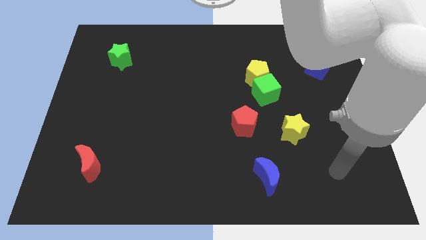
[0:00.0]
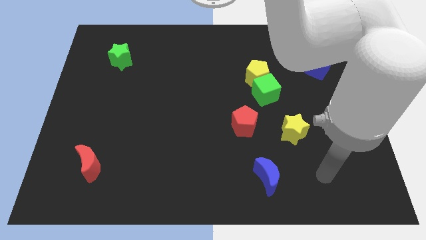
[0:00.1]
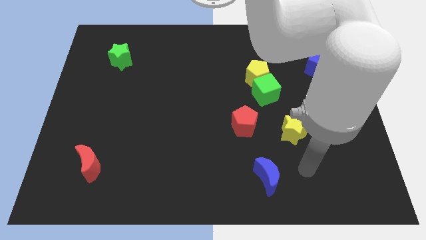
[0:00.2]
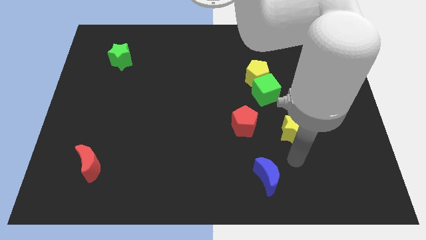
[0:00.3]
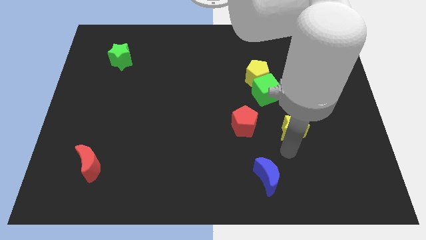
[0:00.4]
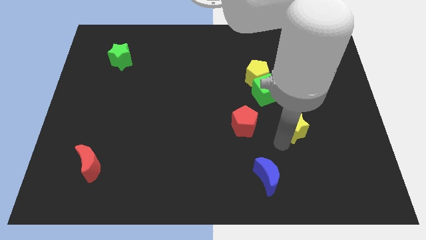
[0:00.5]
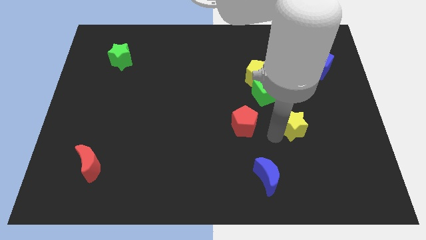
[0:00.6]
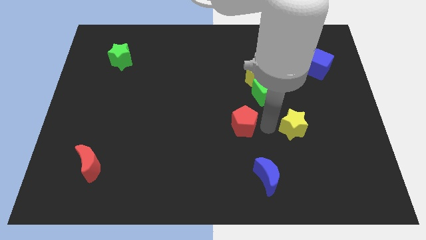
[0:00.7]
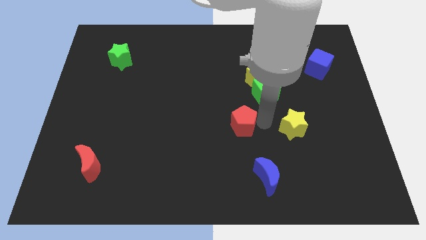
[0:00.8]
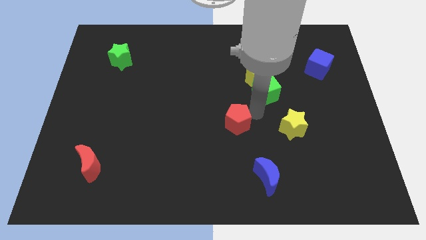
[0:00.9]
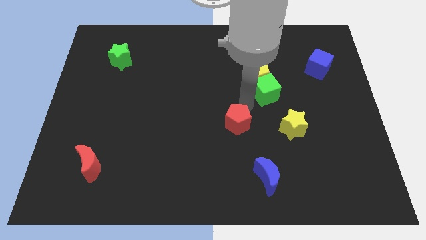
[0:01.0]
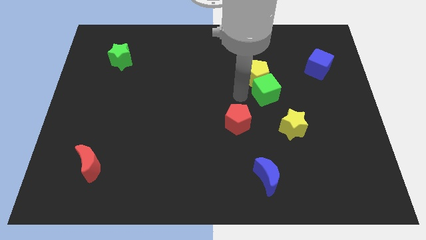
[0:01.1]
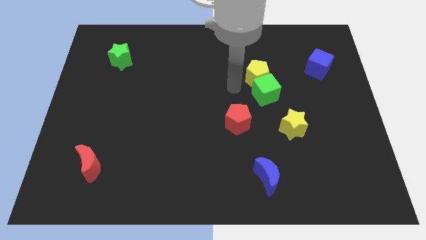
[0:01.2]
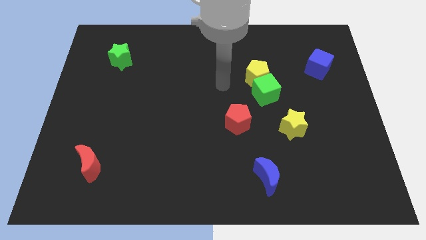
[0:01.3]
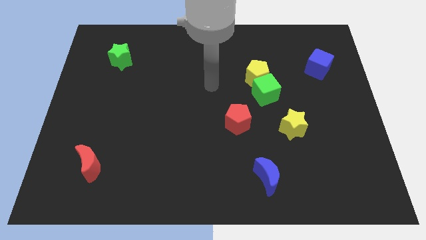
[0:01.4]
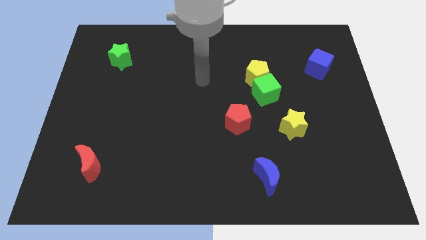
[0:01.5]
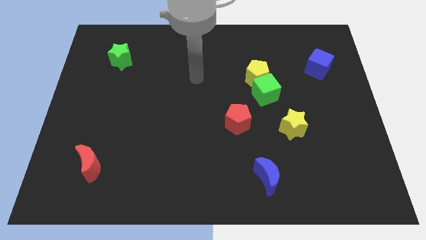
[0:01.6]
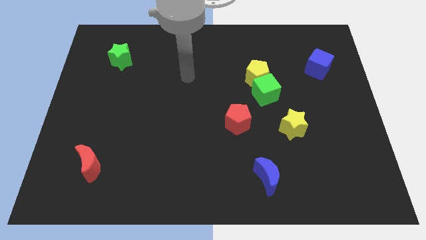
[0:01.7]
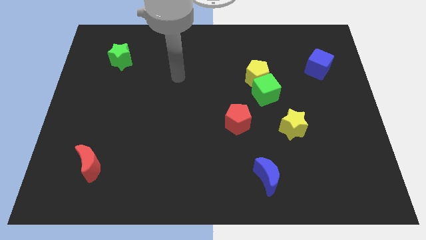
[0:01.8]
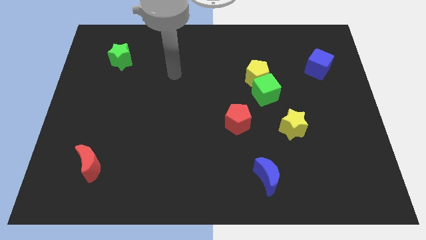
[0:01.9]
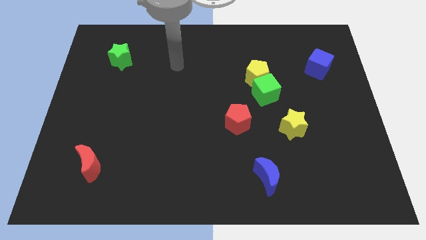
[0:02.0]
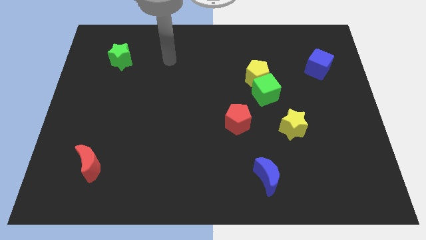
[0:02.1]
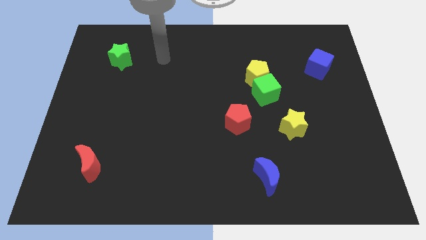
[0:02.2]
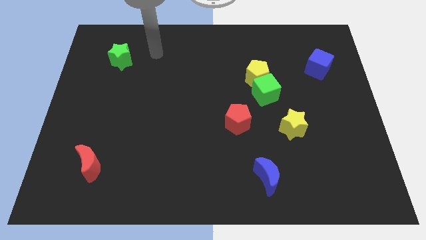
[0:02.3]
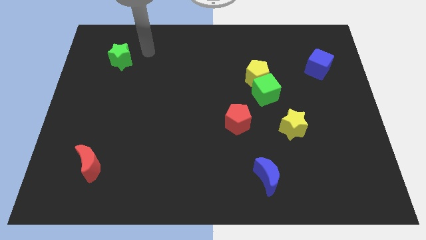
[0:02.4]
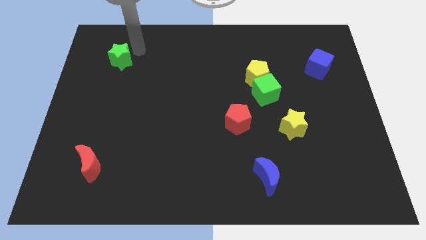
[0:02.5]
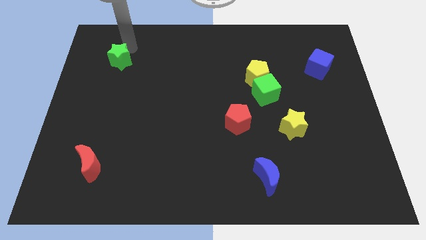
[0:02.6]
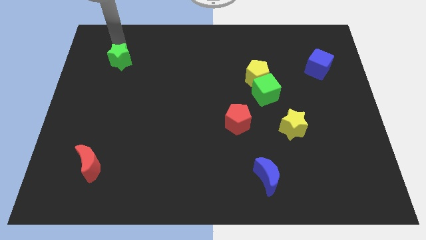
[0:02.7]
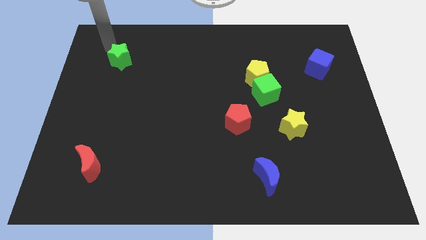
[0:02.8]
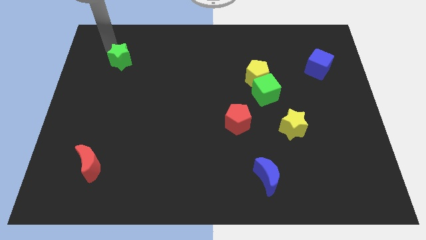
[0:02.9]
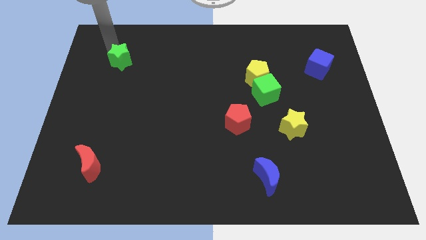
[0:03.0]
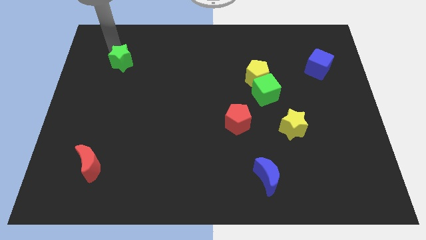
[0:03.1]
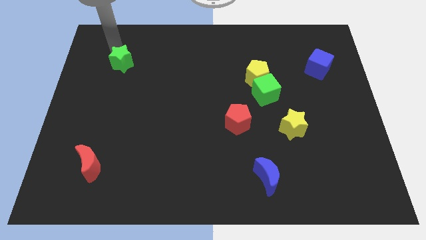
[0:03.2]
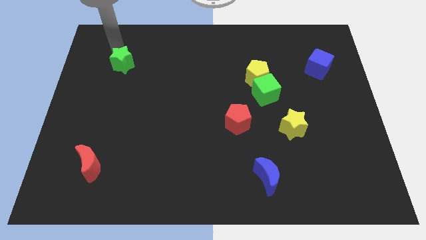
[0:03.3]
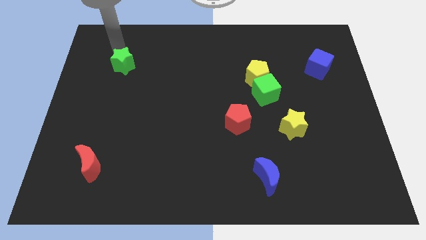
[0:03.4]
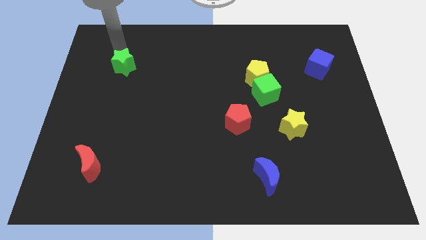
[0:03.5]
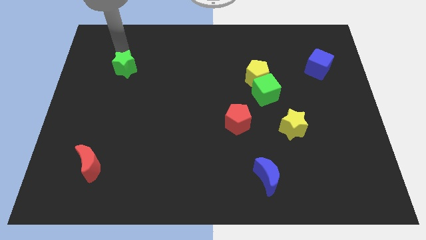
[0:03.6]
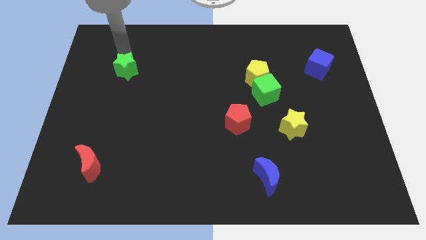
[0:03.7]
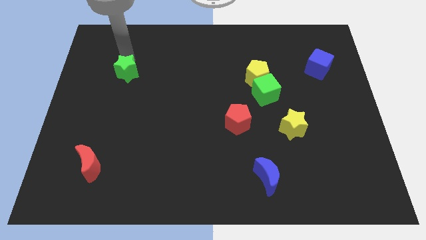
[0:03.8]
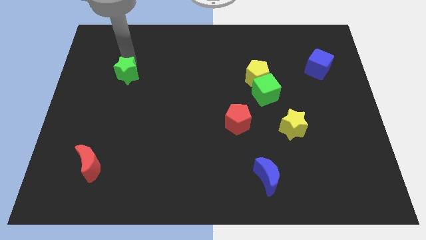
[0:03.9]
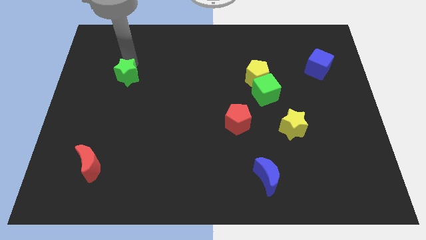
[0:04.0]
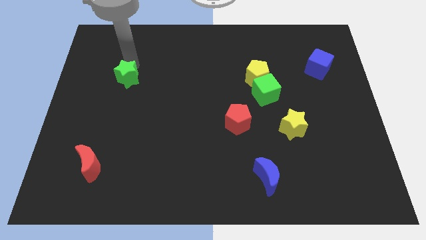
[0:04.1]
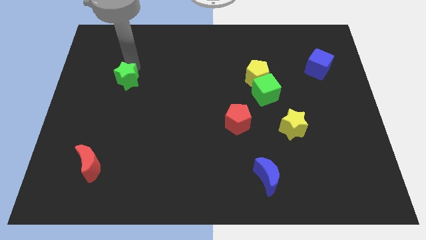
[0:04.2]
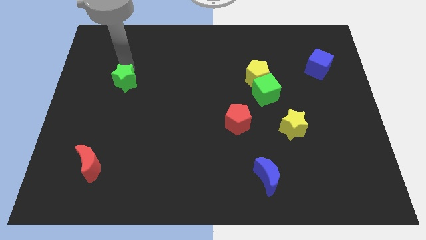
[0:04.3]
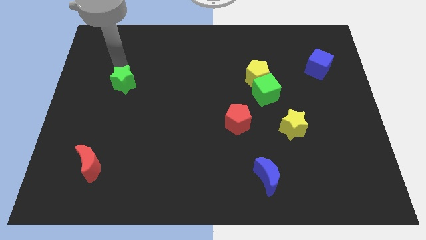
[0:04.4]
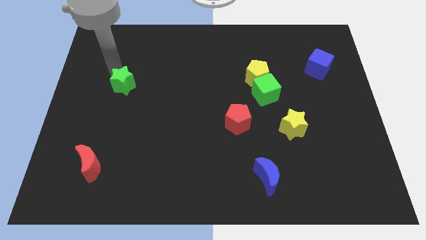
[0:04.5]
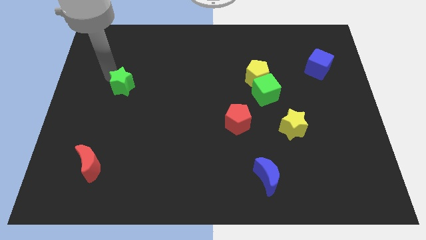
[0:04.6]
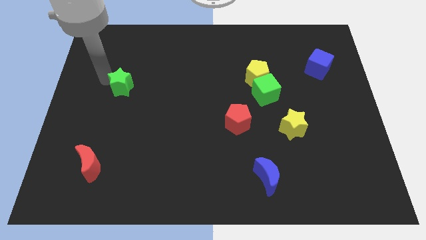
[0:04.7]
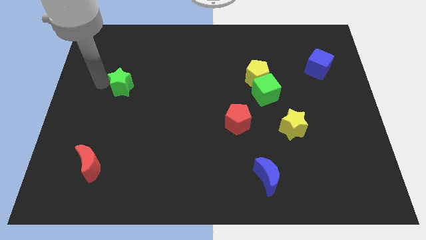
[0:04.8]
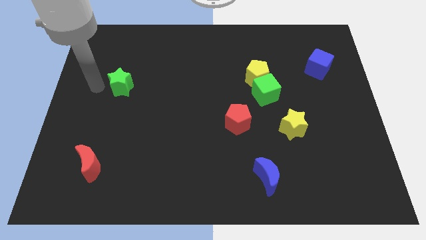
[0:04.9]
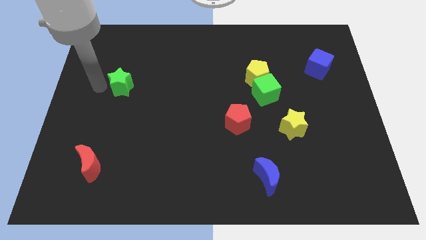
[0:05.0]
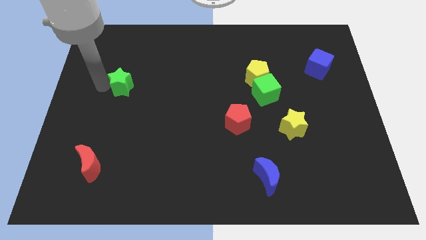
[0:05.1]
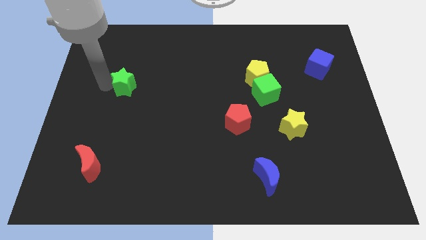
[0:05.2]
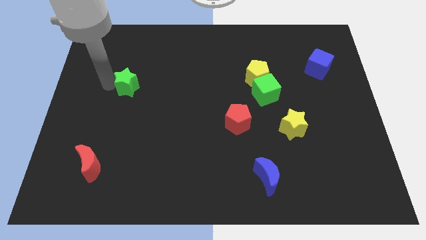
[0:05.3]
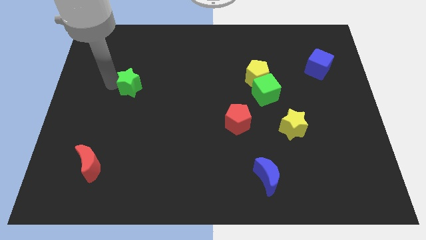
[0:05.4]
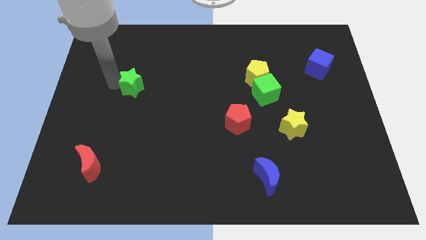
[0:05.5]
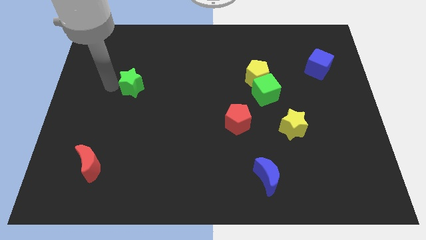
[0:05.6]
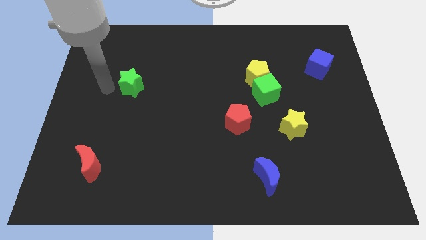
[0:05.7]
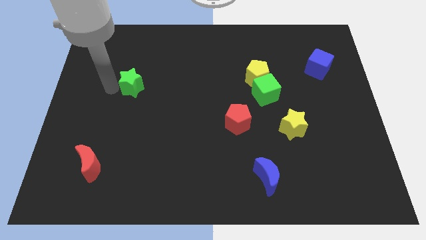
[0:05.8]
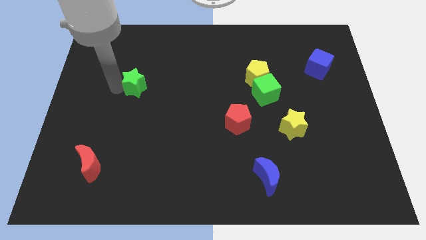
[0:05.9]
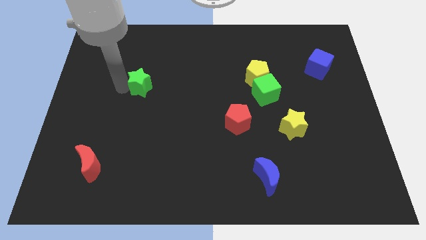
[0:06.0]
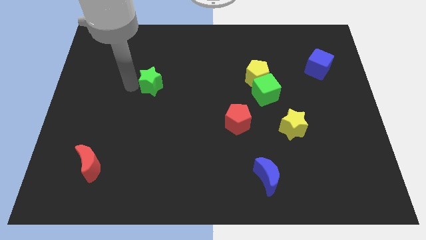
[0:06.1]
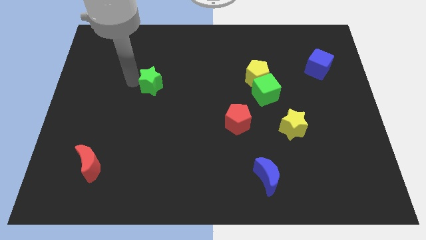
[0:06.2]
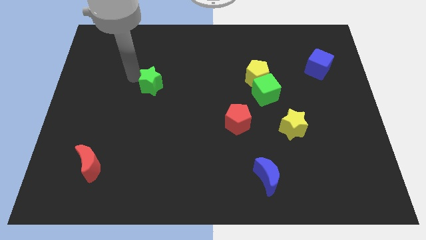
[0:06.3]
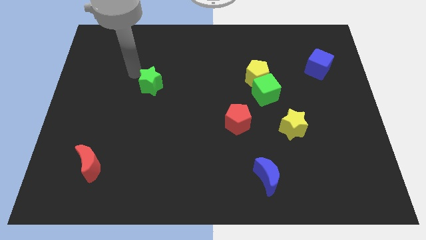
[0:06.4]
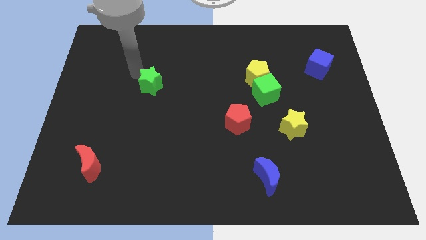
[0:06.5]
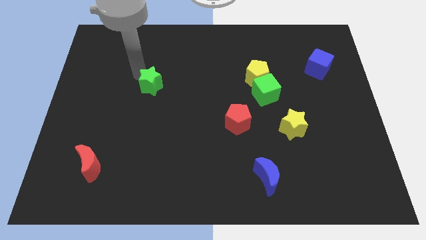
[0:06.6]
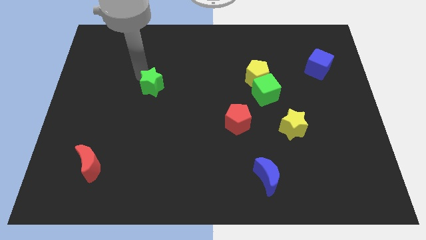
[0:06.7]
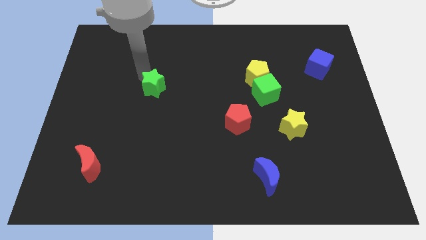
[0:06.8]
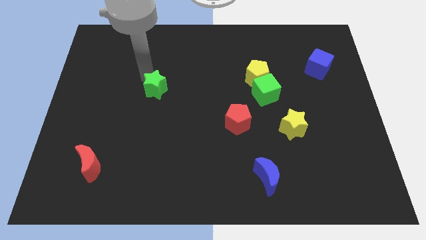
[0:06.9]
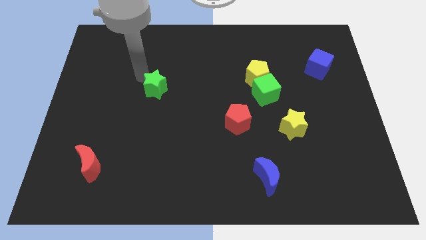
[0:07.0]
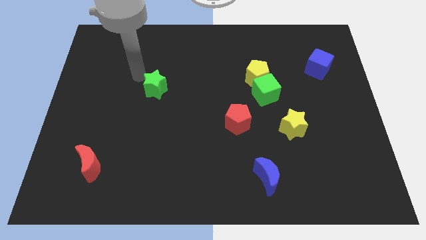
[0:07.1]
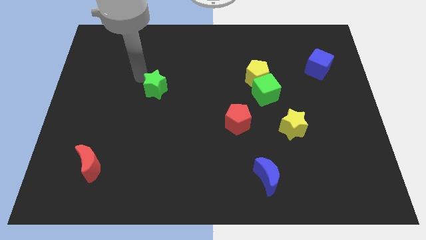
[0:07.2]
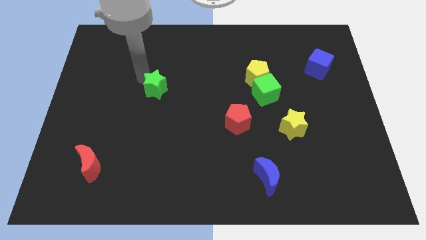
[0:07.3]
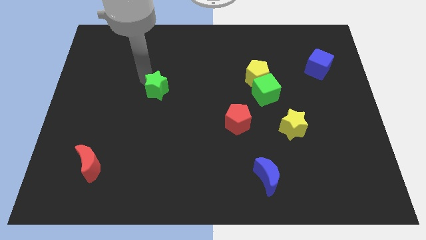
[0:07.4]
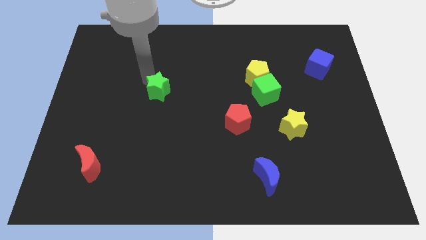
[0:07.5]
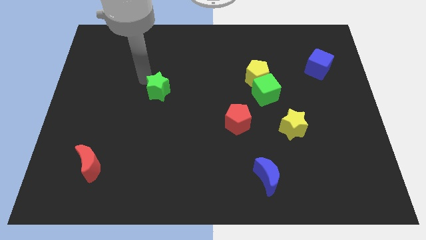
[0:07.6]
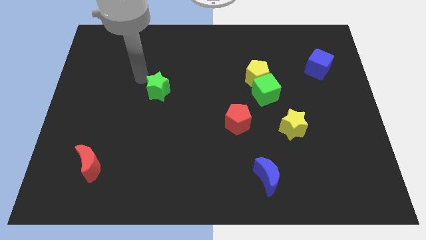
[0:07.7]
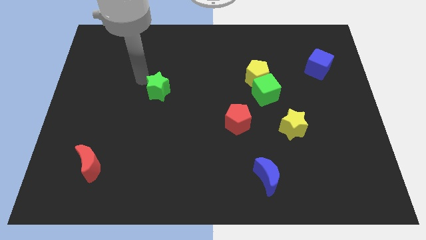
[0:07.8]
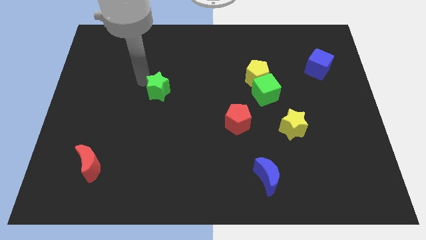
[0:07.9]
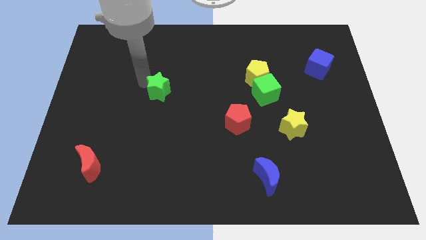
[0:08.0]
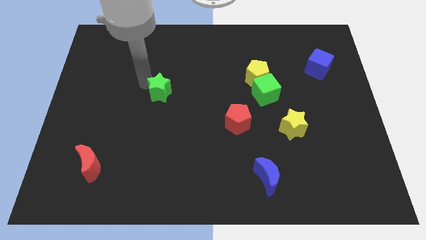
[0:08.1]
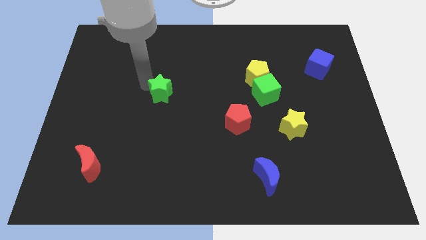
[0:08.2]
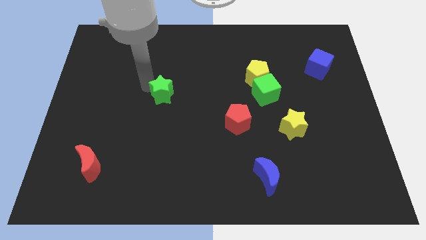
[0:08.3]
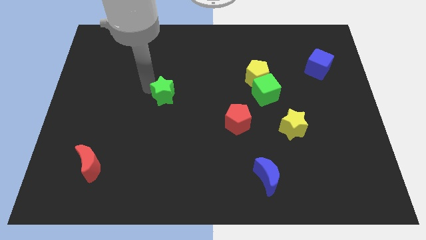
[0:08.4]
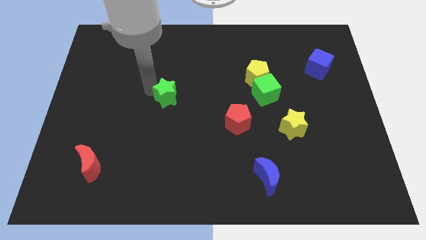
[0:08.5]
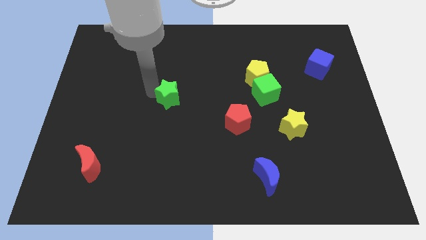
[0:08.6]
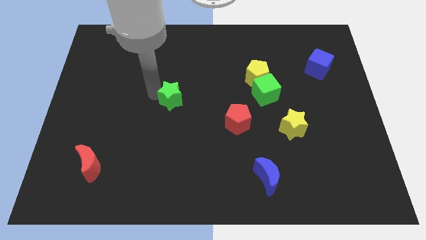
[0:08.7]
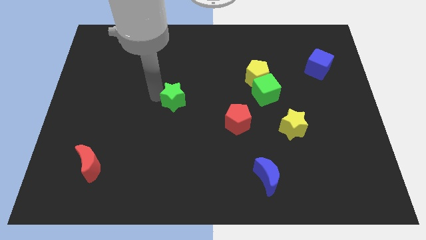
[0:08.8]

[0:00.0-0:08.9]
push the green star downwards and then to the right
